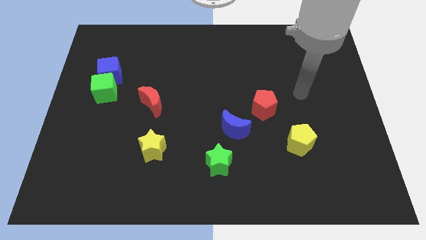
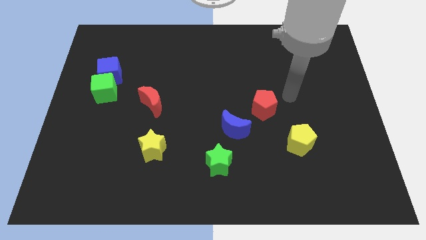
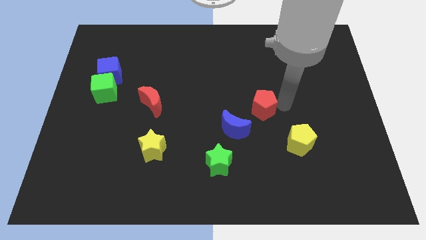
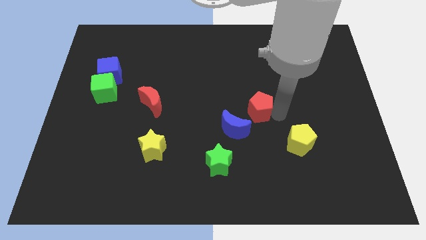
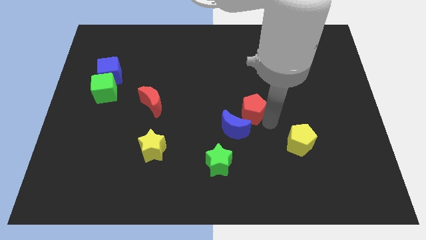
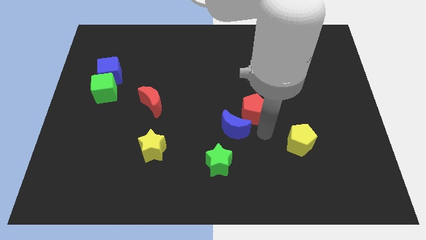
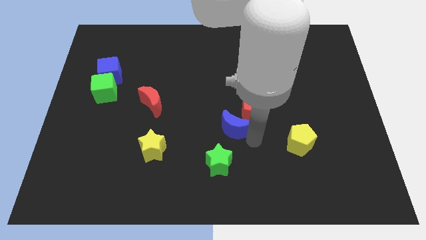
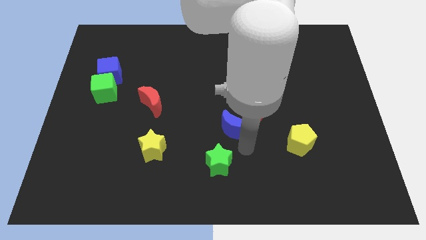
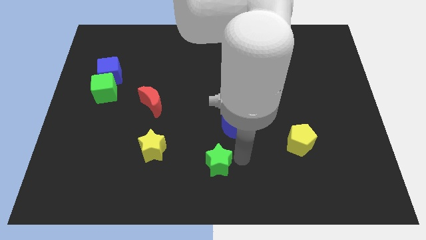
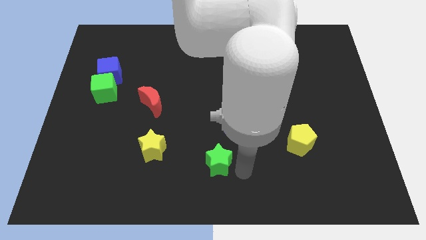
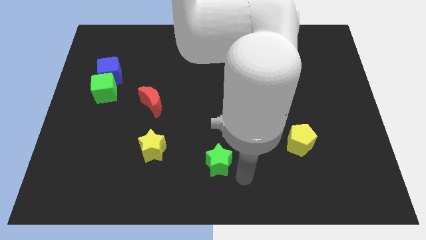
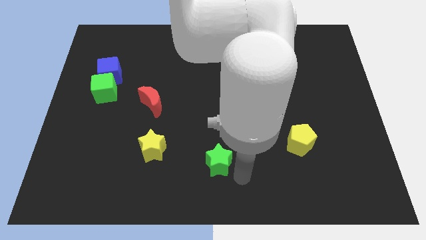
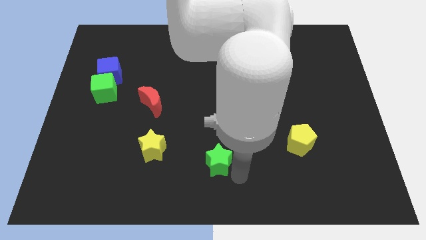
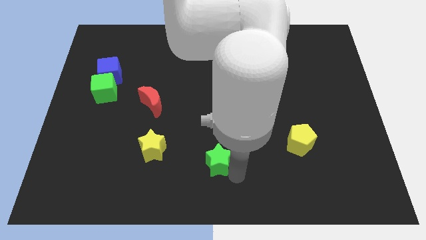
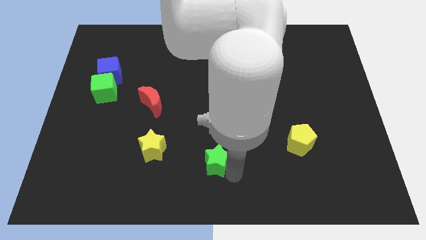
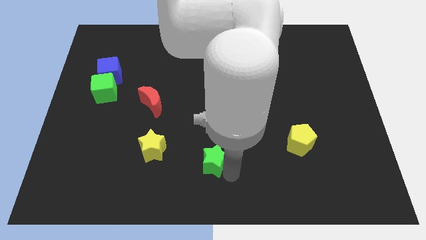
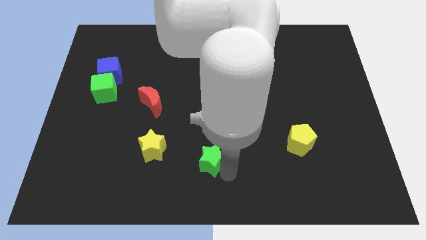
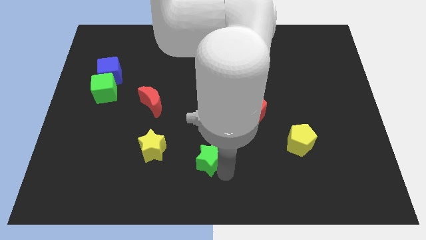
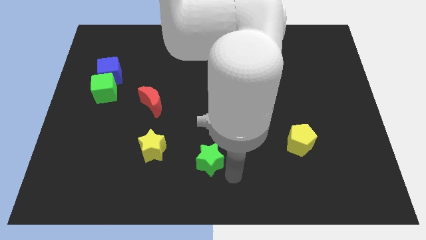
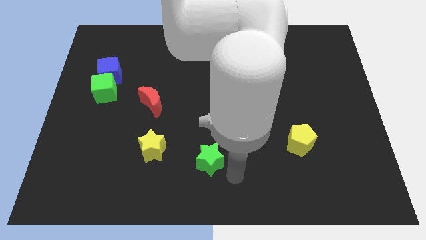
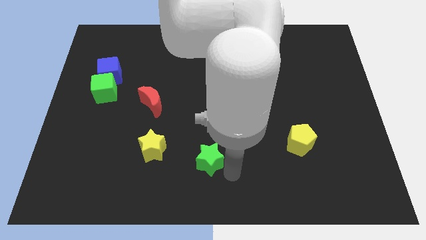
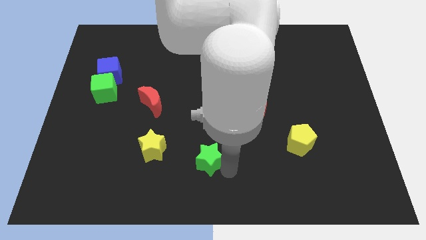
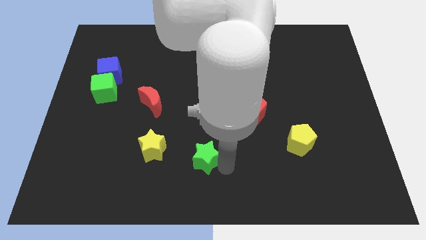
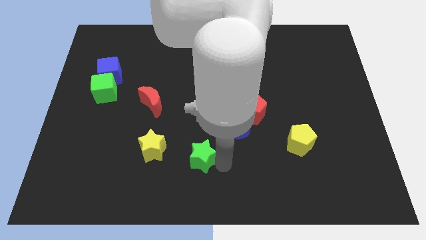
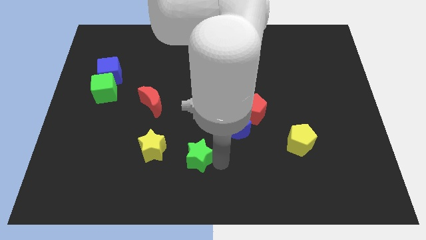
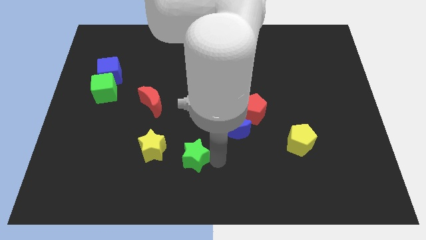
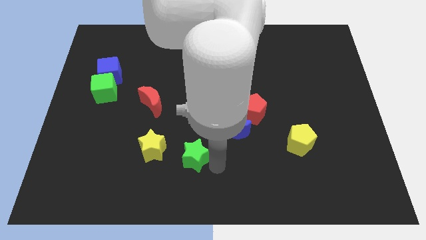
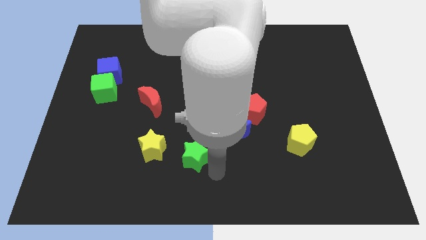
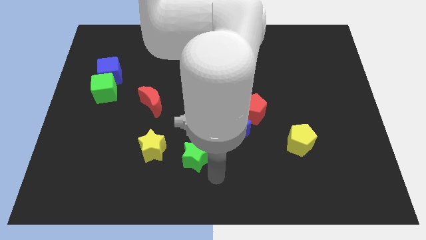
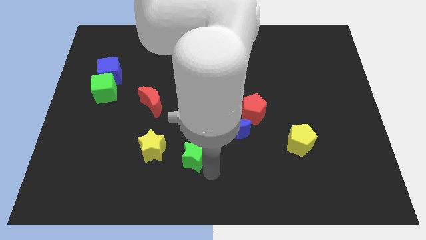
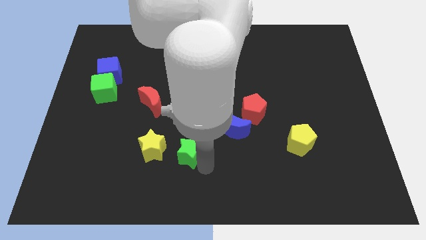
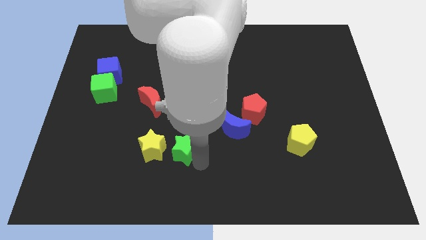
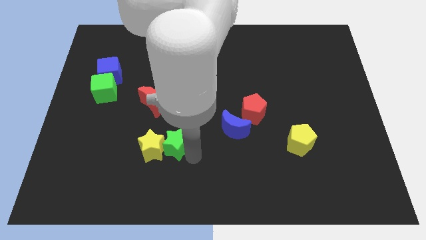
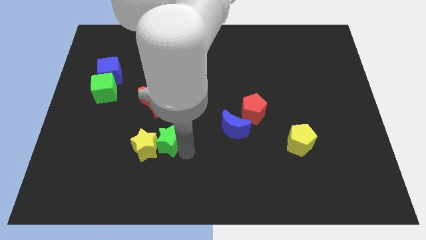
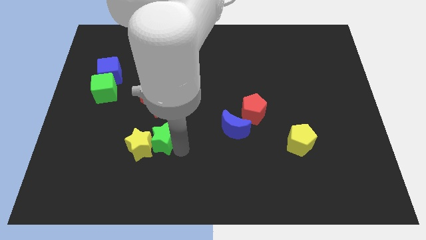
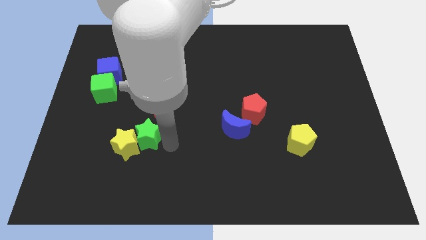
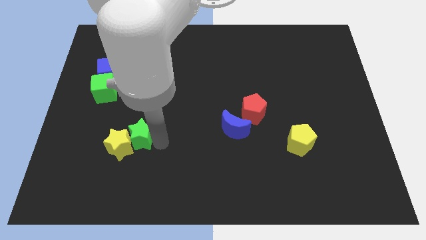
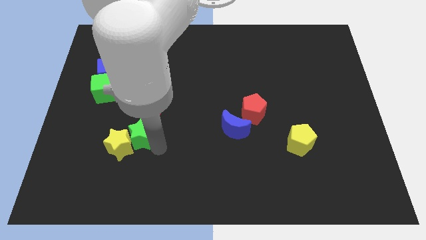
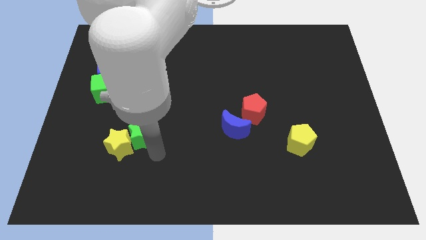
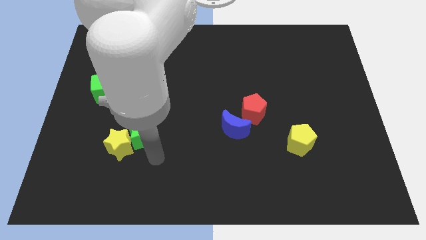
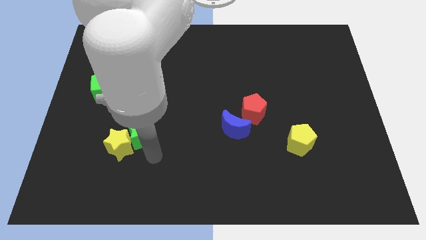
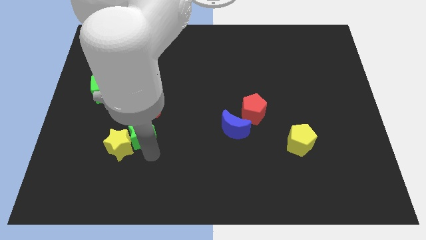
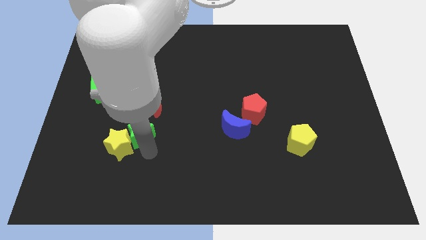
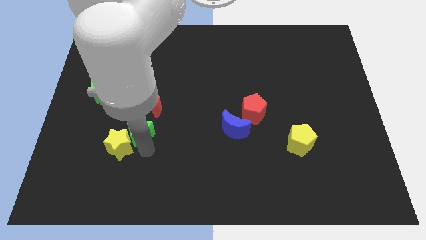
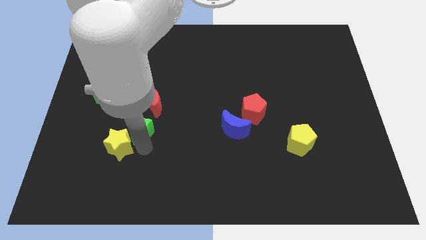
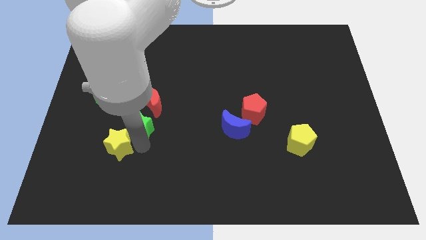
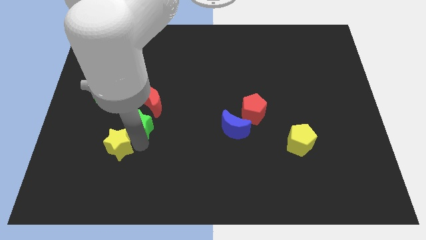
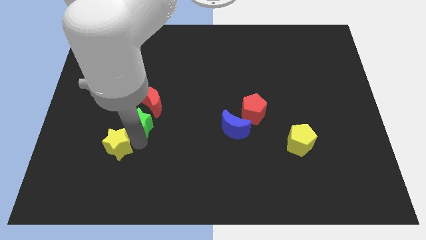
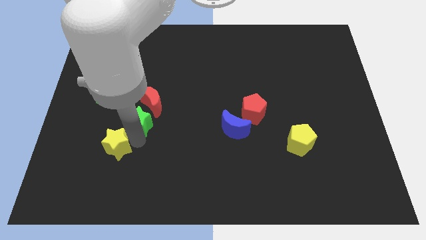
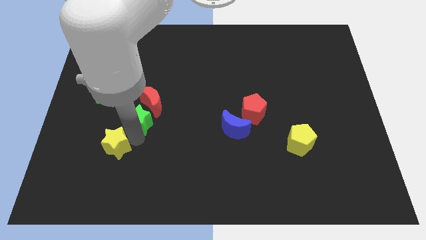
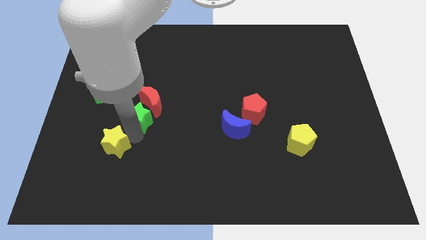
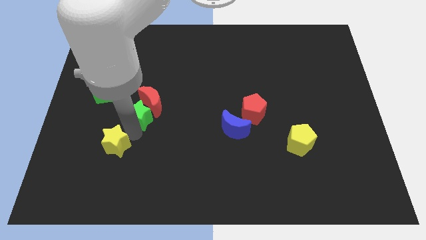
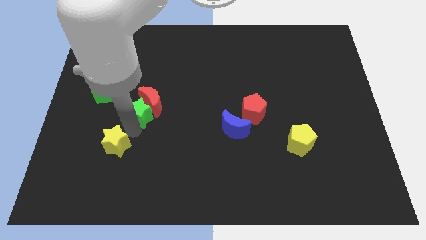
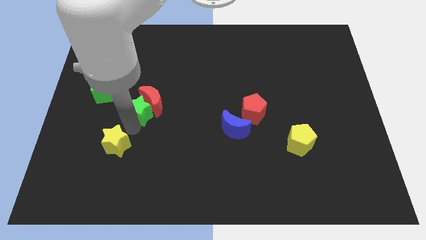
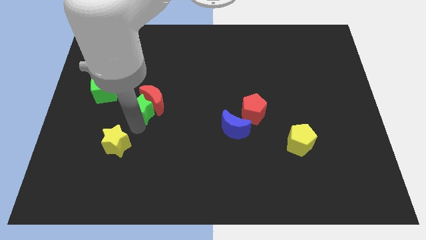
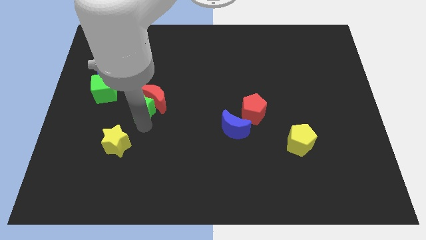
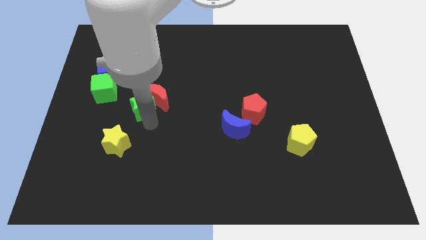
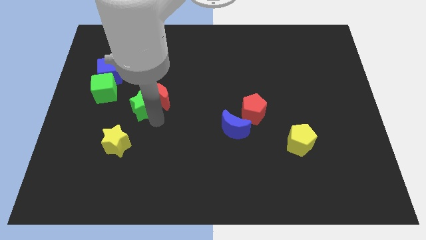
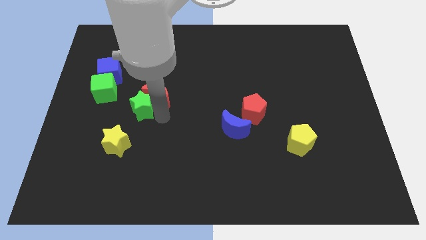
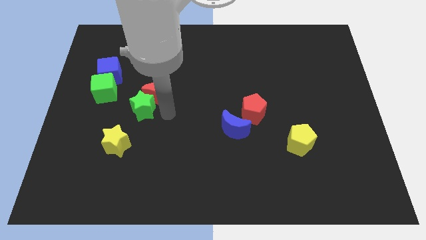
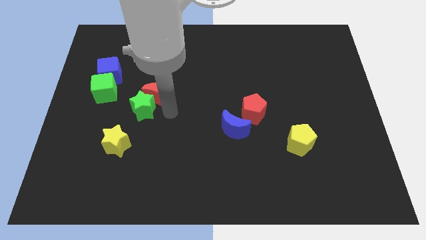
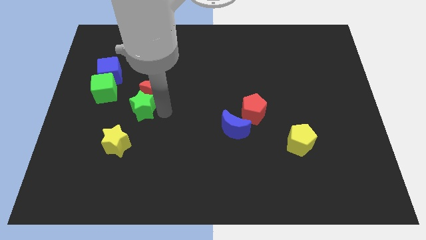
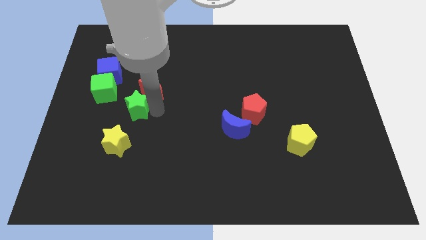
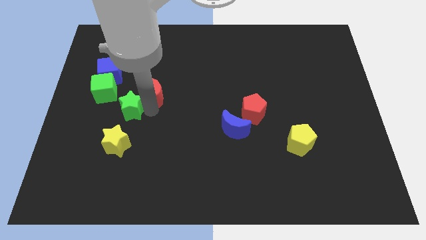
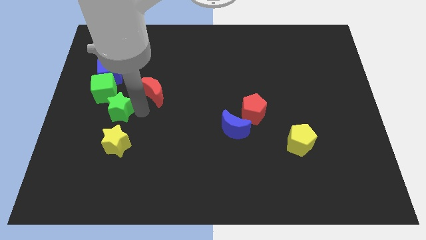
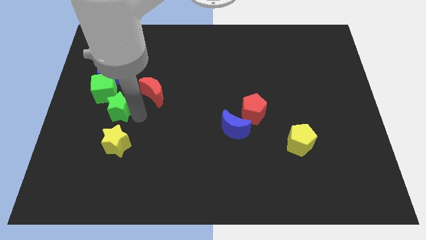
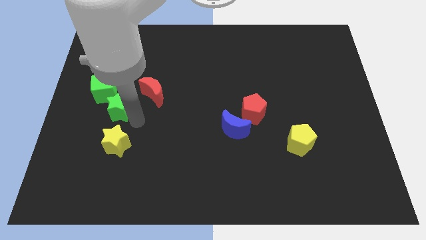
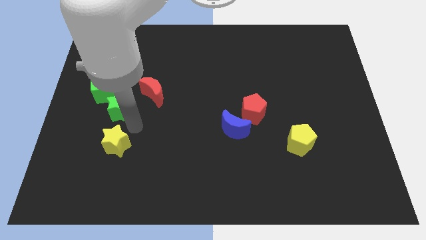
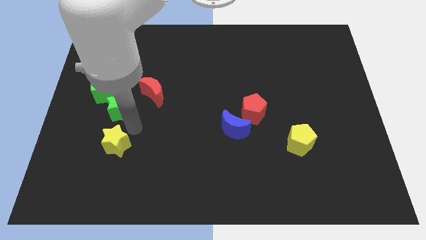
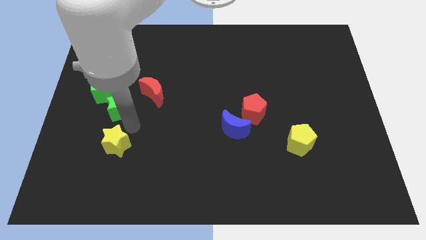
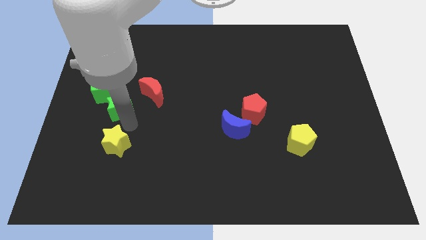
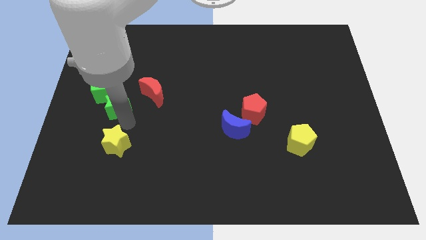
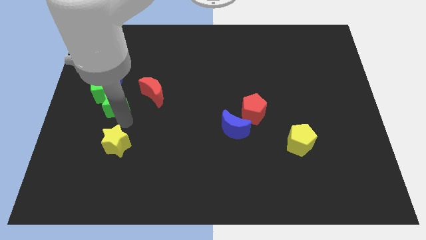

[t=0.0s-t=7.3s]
move the green star close to the green cube

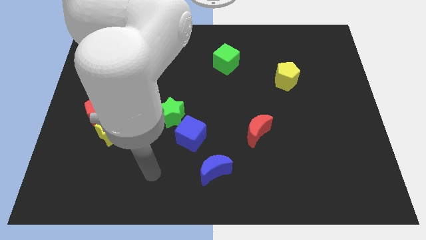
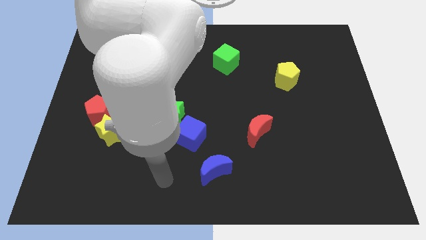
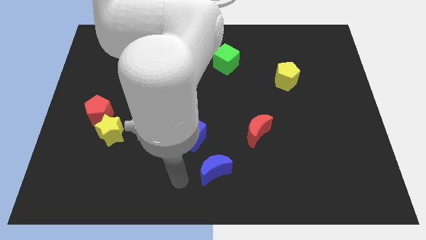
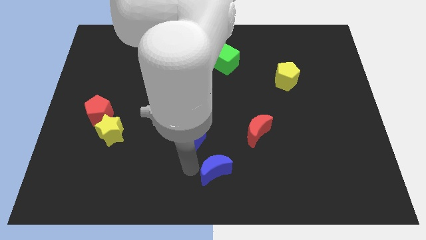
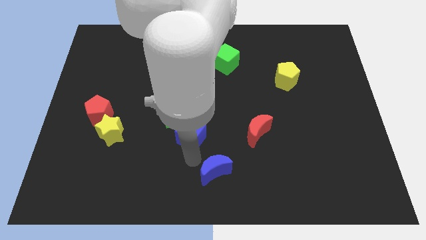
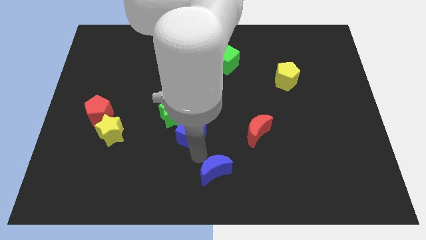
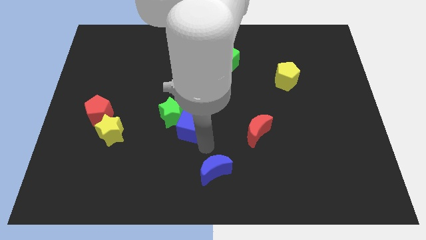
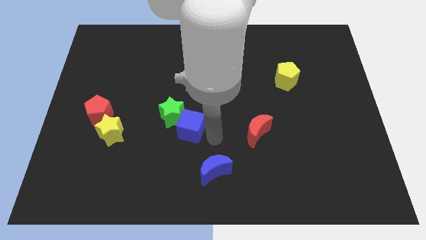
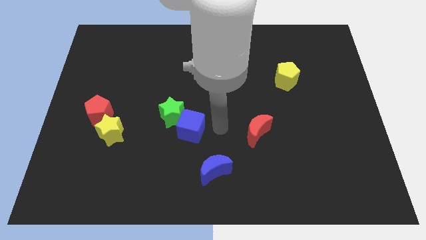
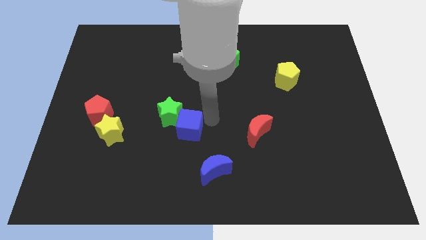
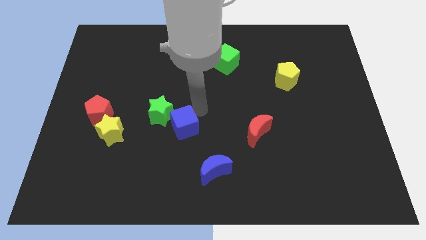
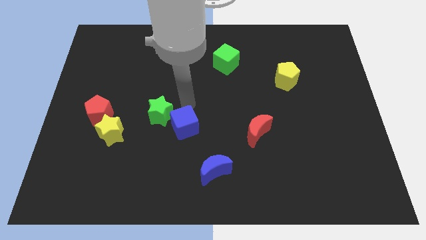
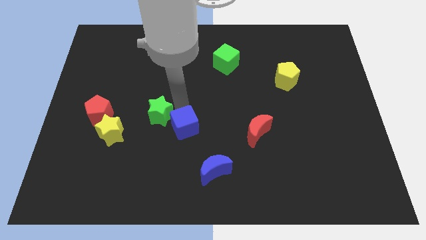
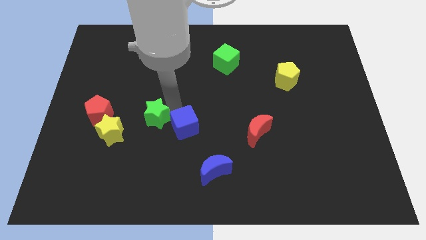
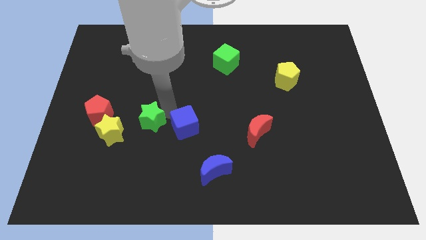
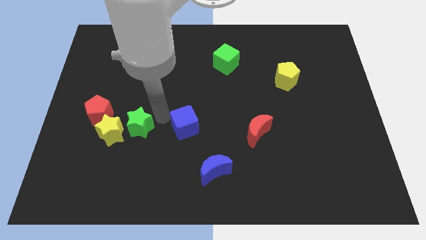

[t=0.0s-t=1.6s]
push the green star to the yellow star
